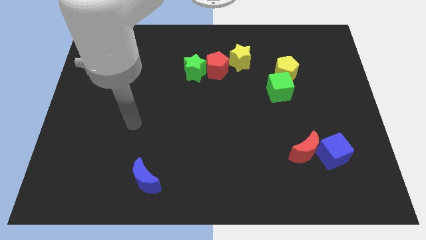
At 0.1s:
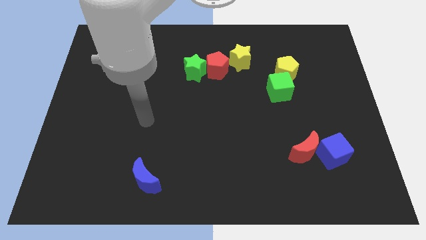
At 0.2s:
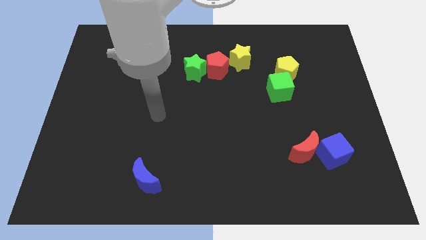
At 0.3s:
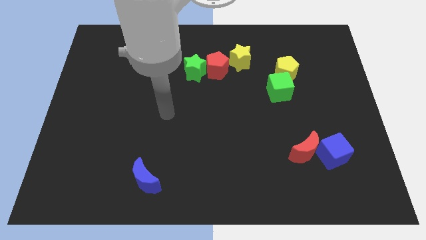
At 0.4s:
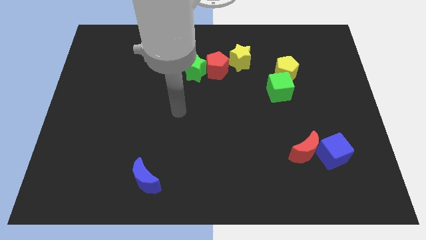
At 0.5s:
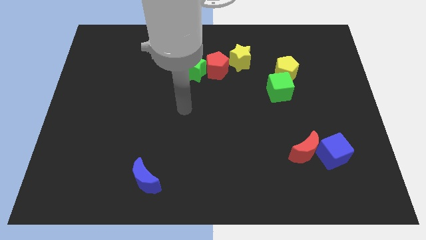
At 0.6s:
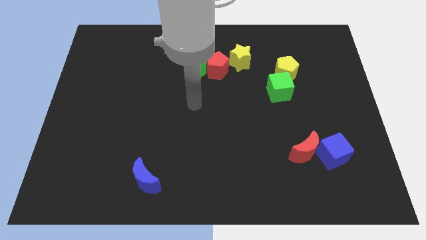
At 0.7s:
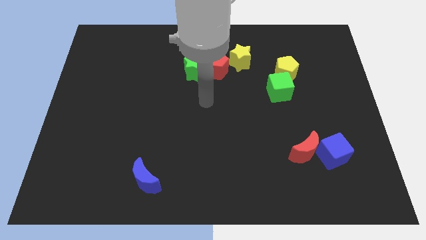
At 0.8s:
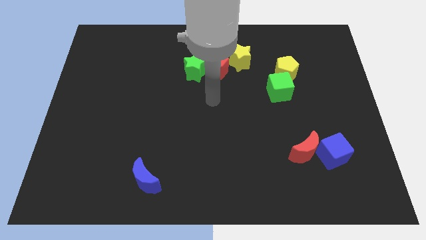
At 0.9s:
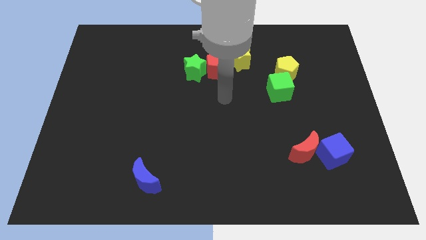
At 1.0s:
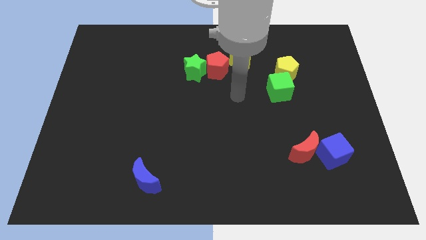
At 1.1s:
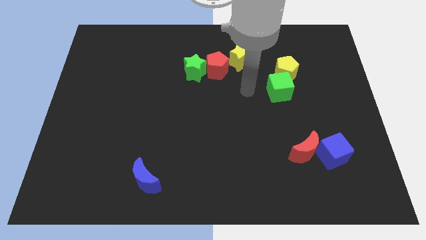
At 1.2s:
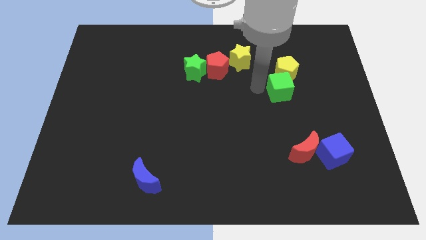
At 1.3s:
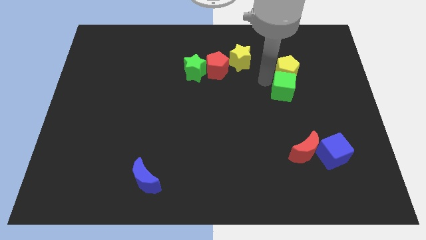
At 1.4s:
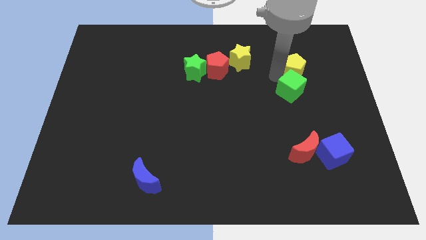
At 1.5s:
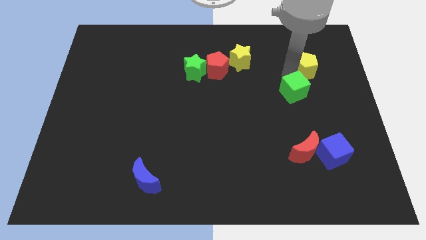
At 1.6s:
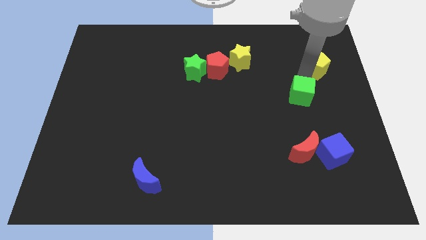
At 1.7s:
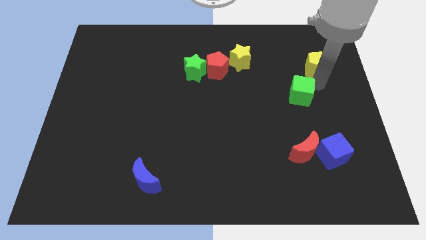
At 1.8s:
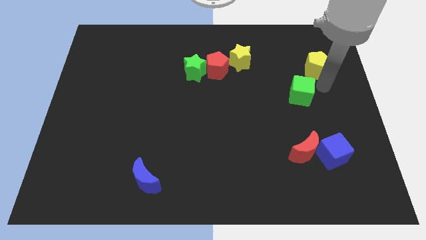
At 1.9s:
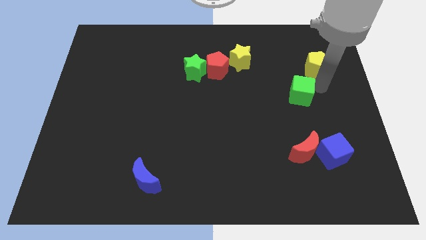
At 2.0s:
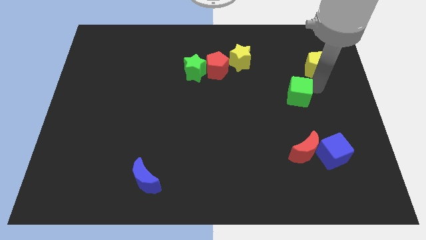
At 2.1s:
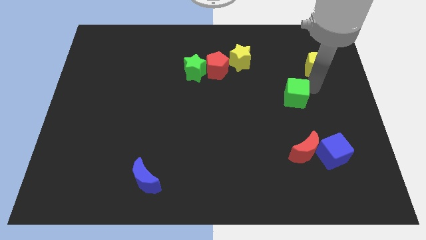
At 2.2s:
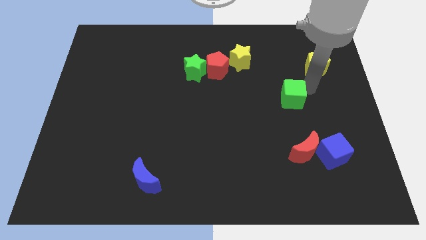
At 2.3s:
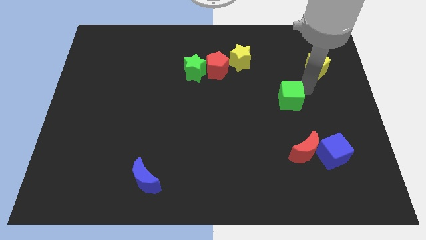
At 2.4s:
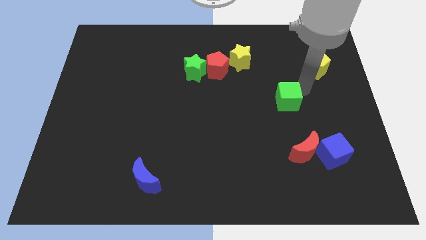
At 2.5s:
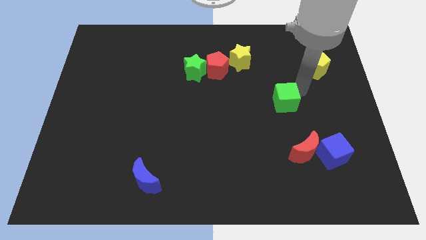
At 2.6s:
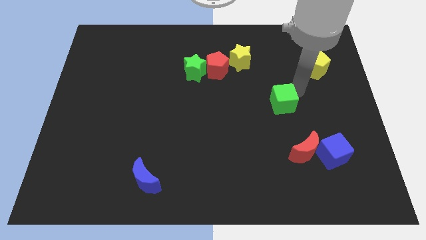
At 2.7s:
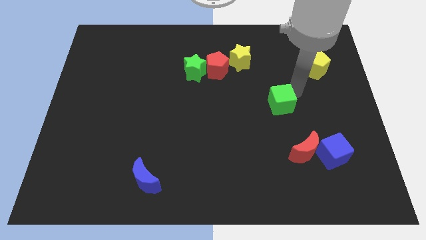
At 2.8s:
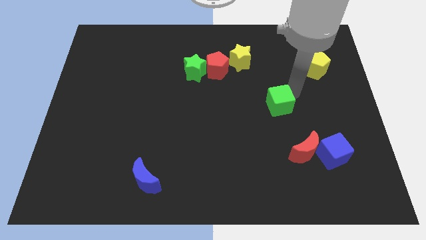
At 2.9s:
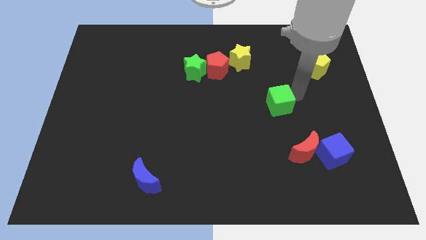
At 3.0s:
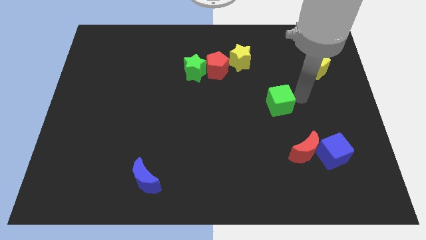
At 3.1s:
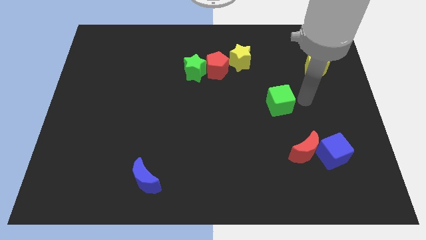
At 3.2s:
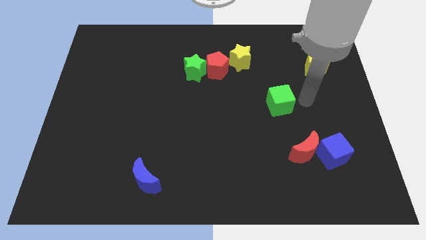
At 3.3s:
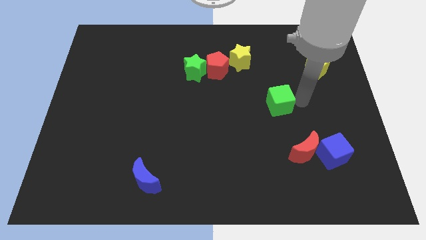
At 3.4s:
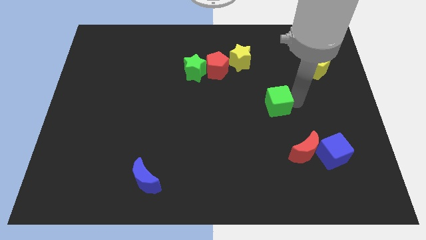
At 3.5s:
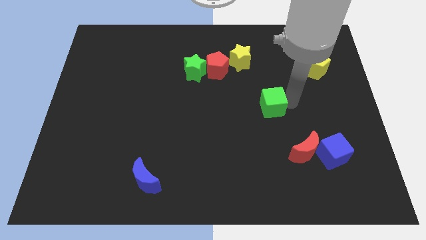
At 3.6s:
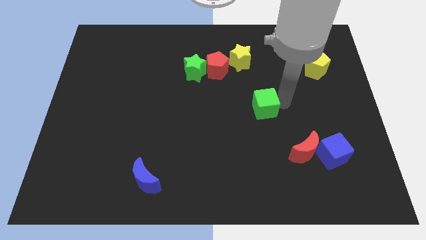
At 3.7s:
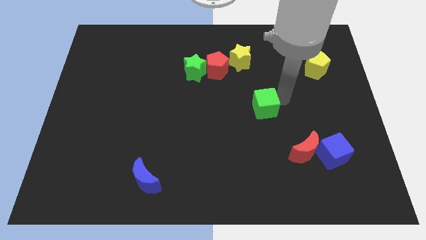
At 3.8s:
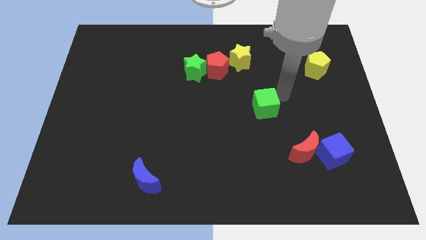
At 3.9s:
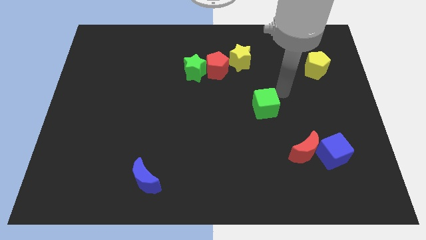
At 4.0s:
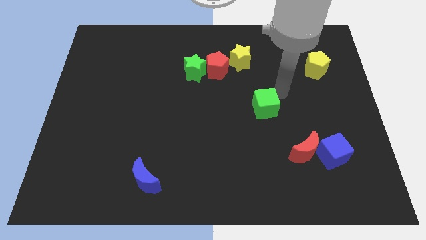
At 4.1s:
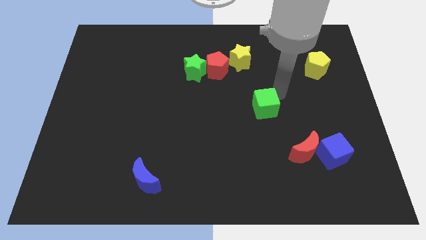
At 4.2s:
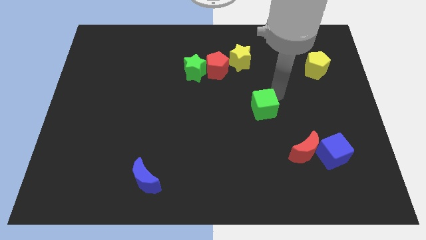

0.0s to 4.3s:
slide the green cube a bit downwards and then left

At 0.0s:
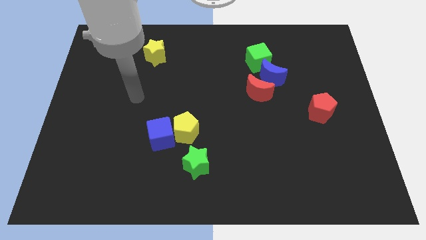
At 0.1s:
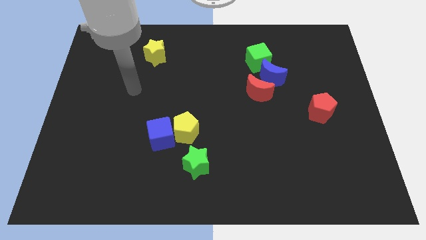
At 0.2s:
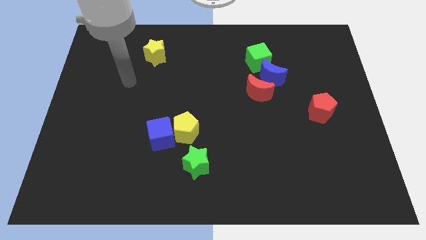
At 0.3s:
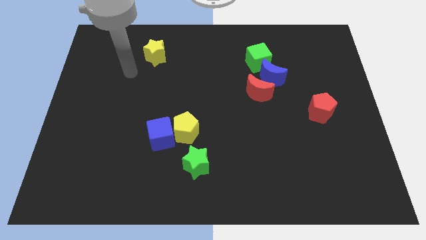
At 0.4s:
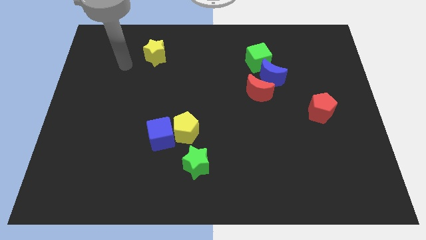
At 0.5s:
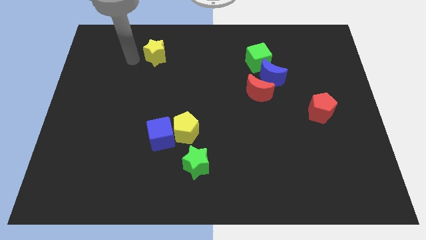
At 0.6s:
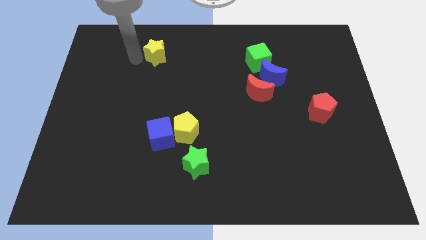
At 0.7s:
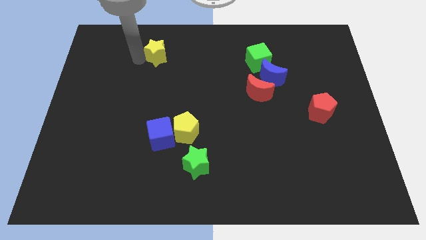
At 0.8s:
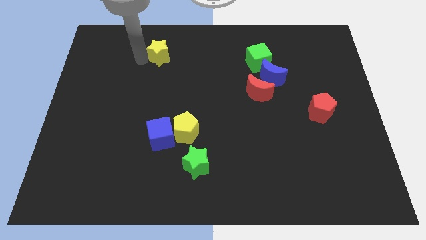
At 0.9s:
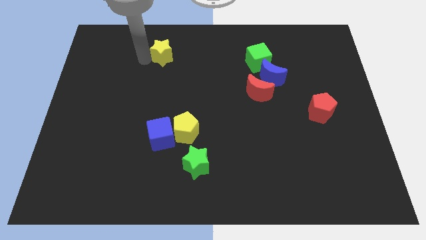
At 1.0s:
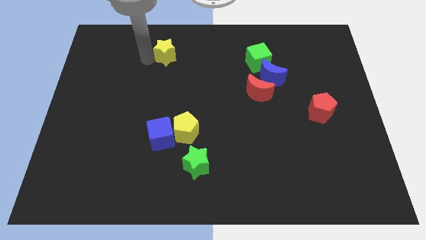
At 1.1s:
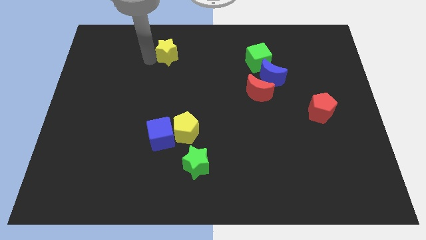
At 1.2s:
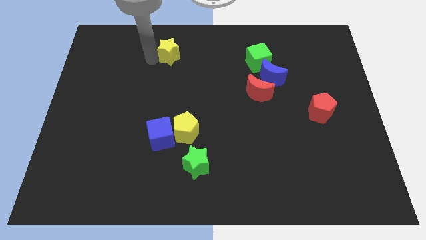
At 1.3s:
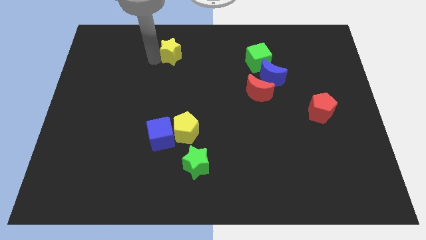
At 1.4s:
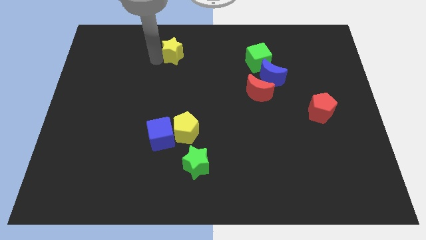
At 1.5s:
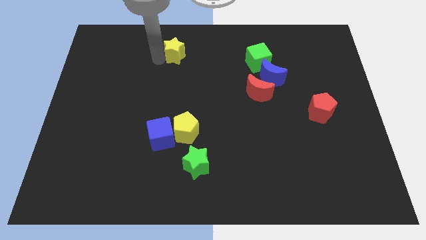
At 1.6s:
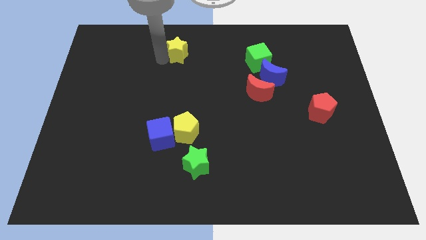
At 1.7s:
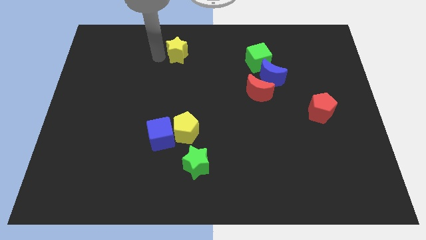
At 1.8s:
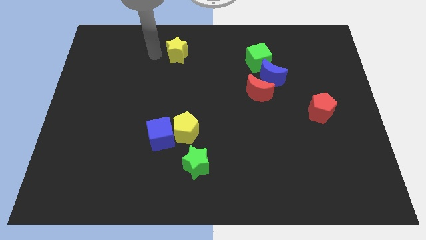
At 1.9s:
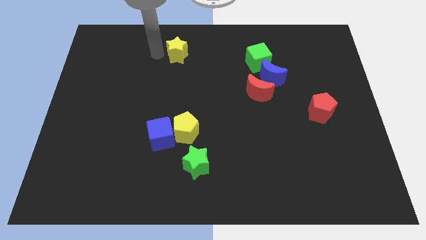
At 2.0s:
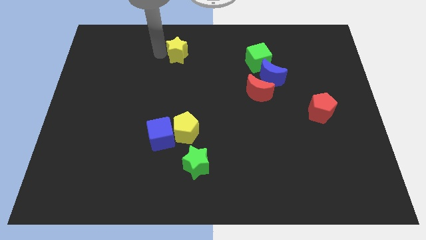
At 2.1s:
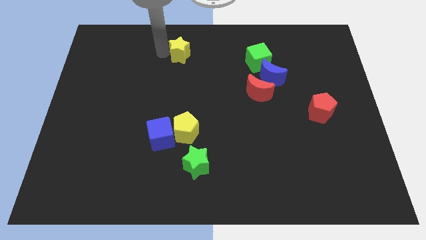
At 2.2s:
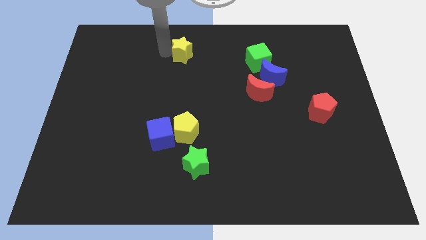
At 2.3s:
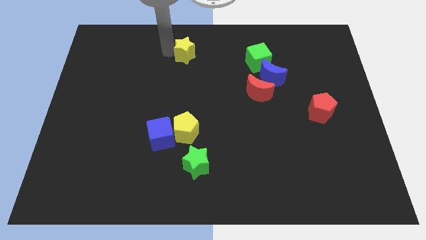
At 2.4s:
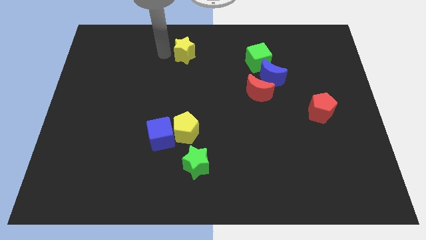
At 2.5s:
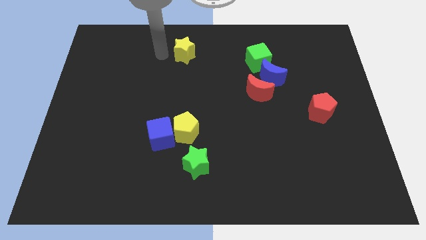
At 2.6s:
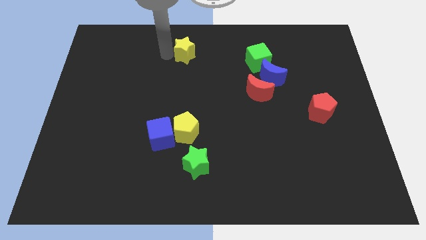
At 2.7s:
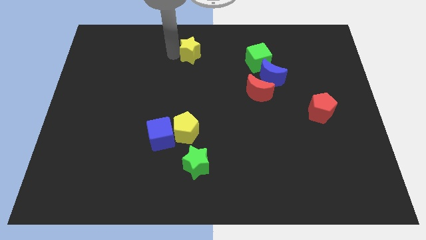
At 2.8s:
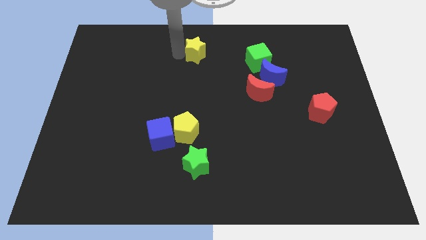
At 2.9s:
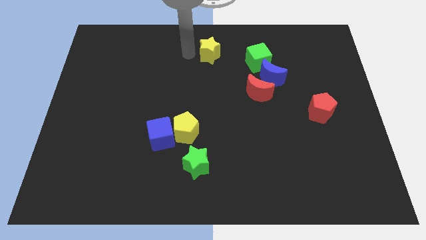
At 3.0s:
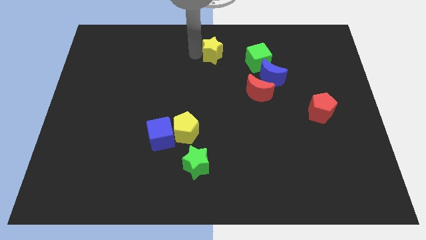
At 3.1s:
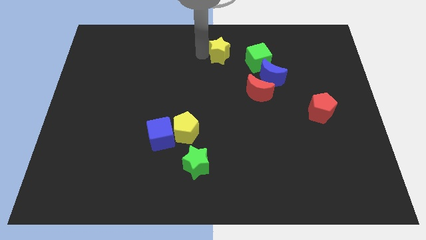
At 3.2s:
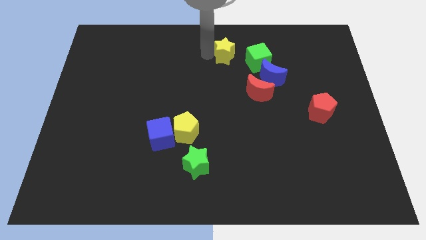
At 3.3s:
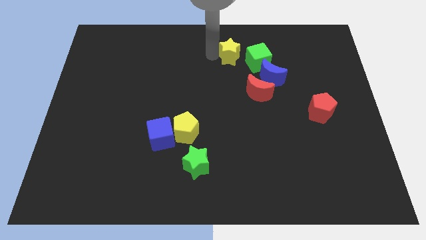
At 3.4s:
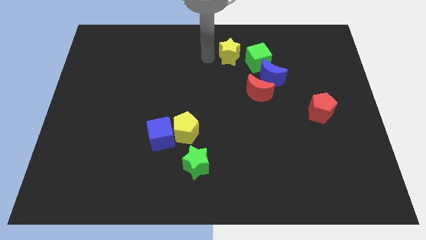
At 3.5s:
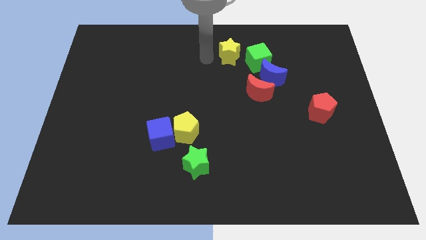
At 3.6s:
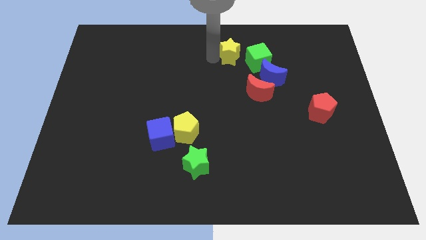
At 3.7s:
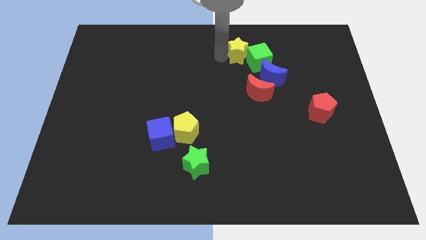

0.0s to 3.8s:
push the yellow star to the right
